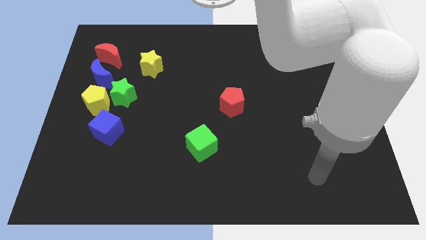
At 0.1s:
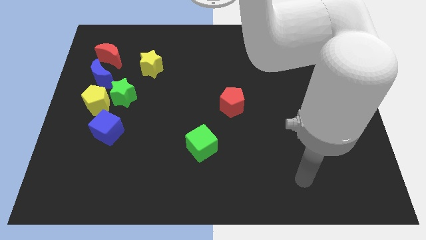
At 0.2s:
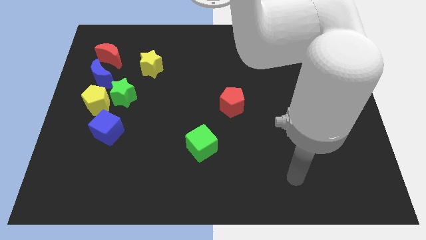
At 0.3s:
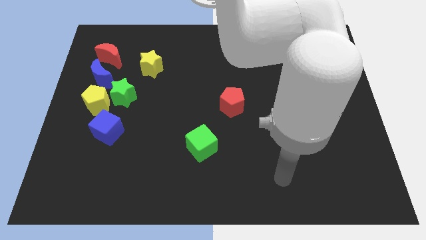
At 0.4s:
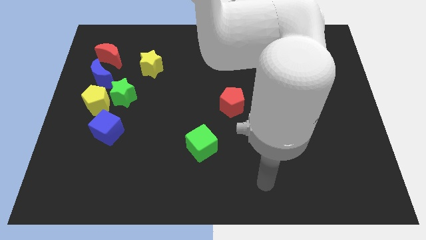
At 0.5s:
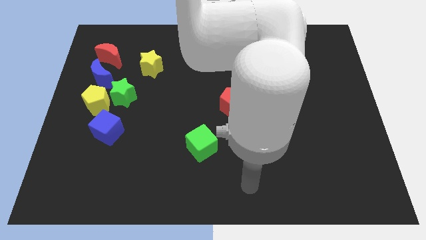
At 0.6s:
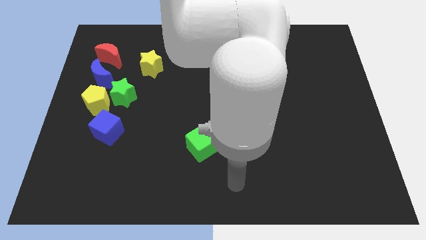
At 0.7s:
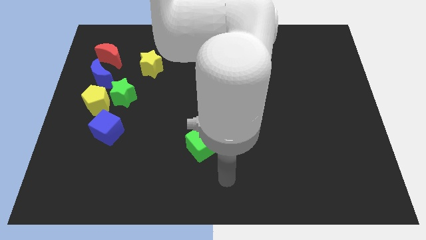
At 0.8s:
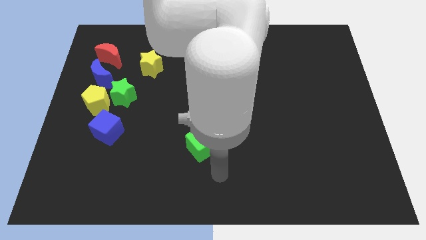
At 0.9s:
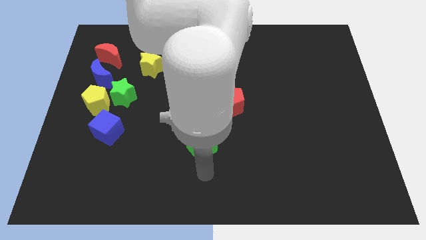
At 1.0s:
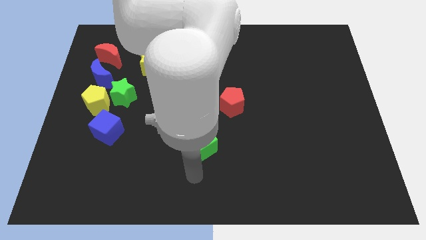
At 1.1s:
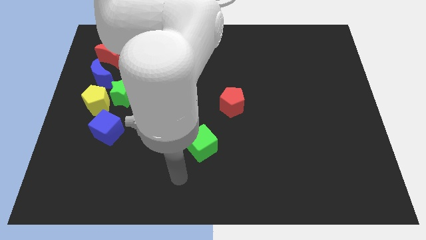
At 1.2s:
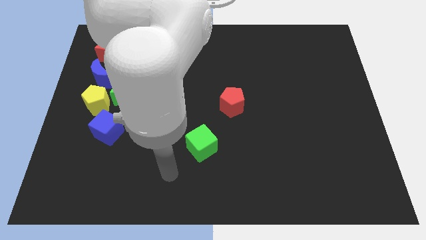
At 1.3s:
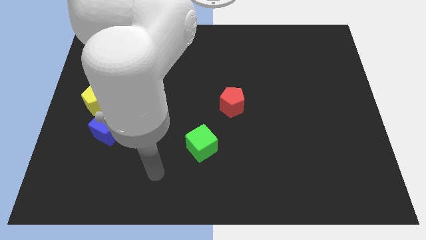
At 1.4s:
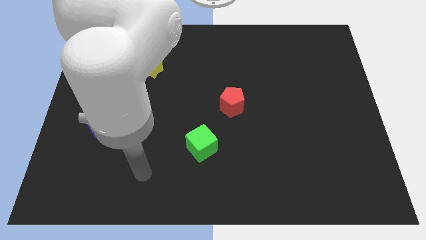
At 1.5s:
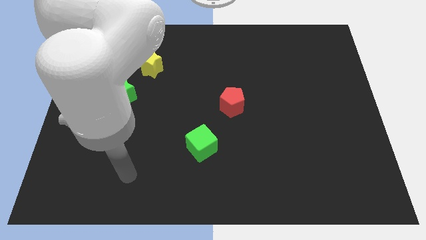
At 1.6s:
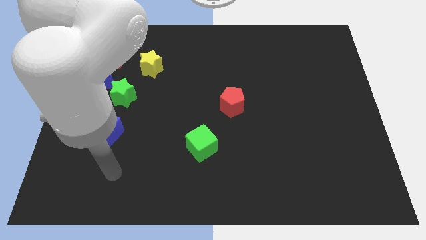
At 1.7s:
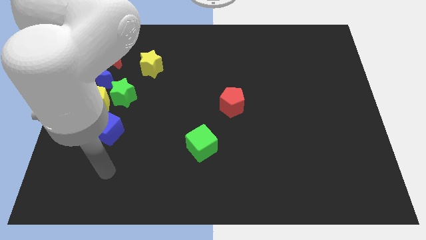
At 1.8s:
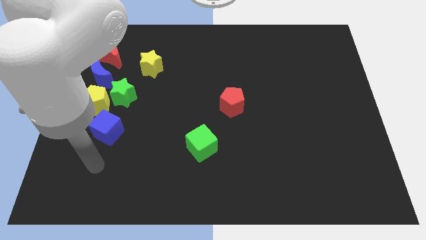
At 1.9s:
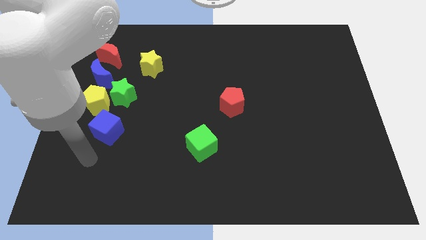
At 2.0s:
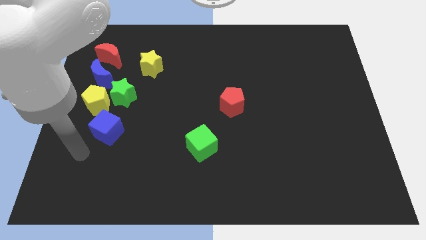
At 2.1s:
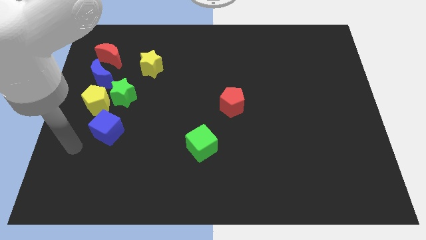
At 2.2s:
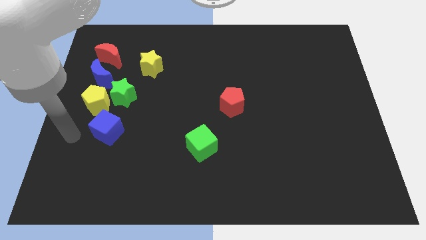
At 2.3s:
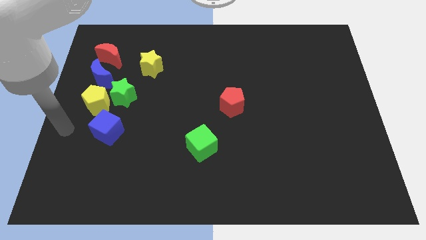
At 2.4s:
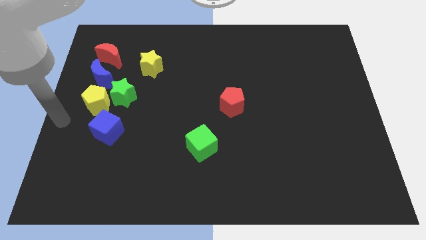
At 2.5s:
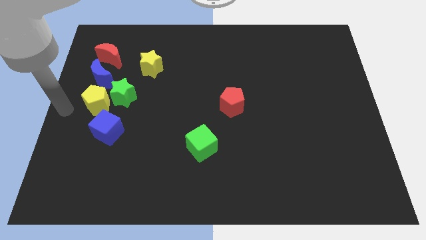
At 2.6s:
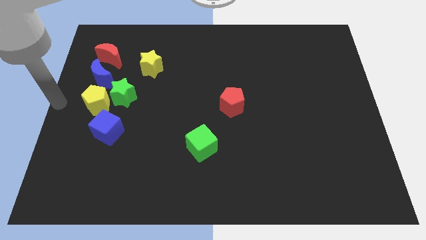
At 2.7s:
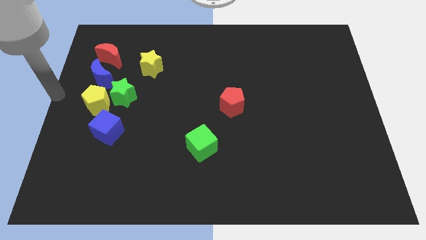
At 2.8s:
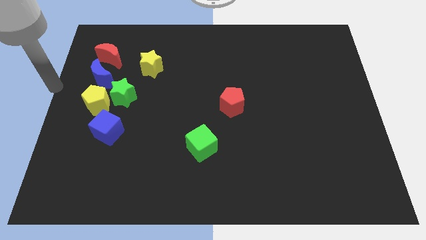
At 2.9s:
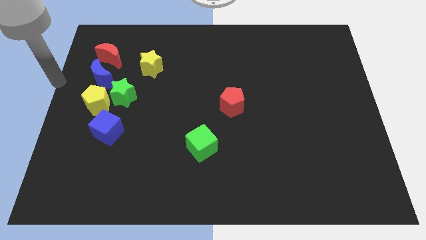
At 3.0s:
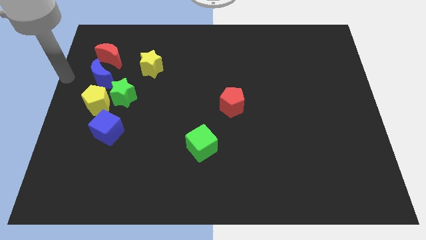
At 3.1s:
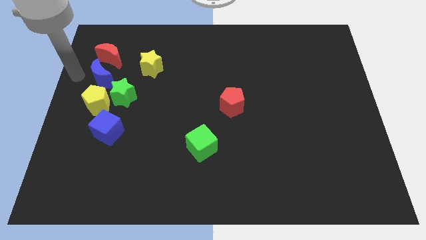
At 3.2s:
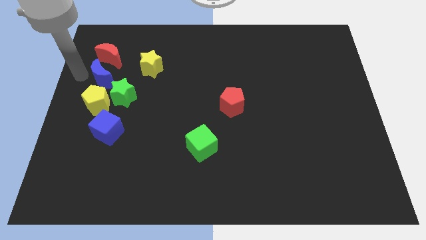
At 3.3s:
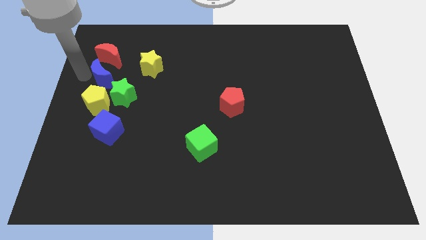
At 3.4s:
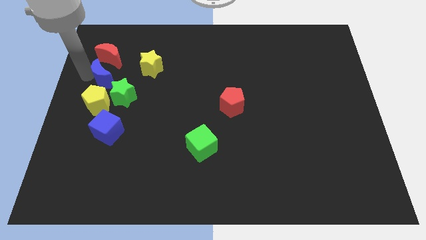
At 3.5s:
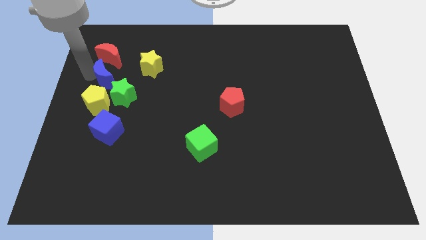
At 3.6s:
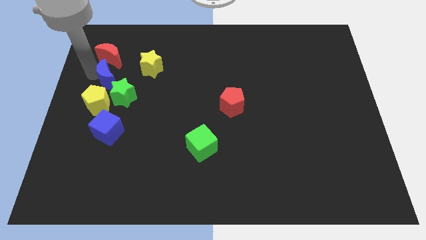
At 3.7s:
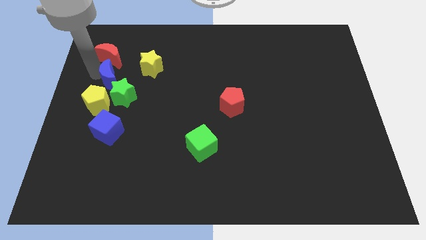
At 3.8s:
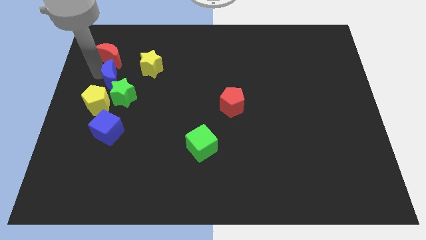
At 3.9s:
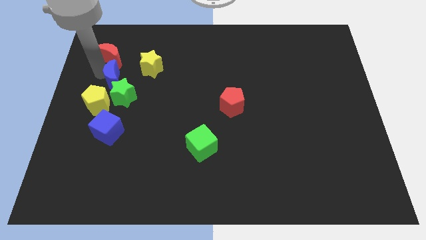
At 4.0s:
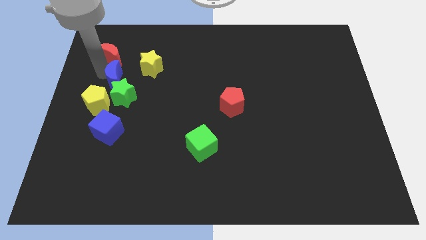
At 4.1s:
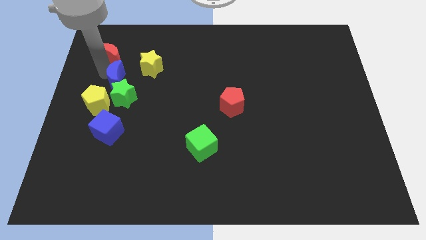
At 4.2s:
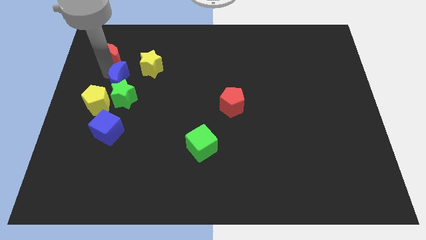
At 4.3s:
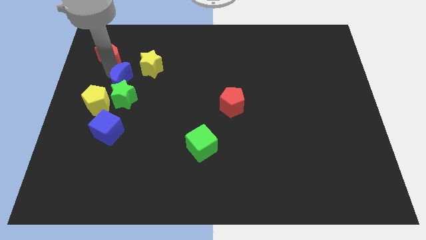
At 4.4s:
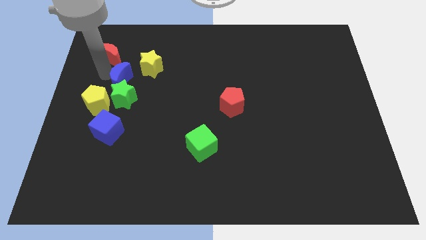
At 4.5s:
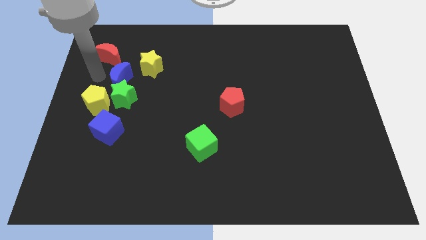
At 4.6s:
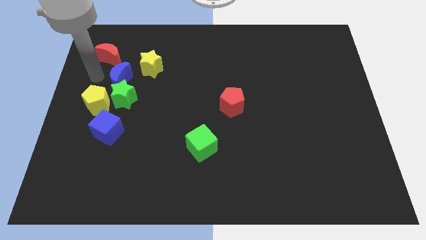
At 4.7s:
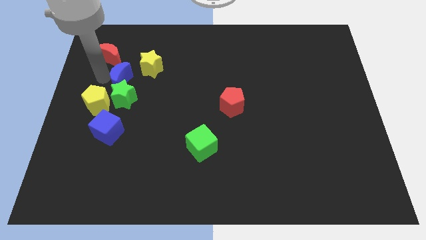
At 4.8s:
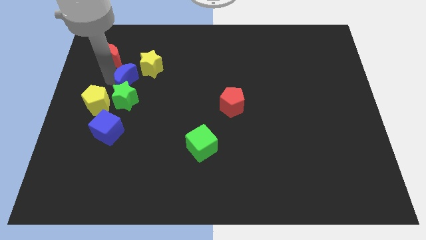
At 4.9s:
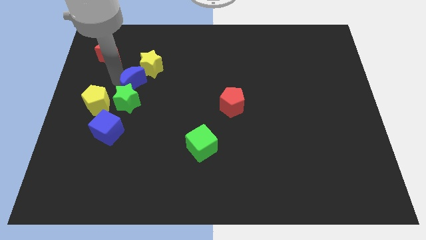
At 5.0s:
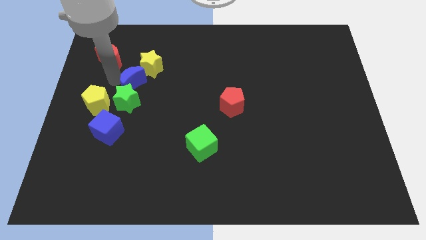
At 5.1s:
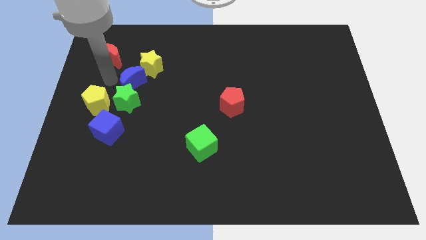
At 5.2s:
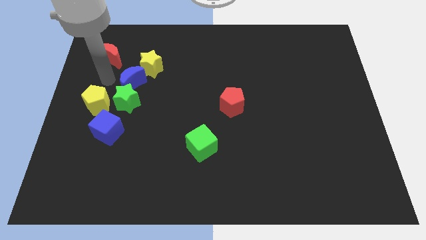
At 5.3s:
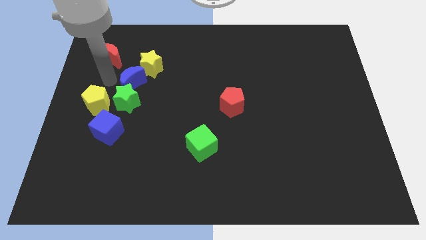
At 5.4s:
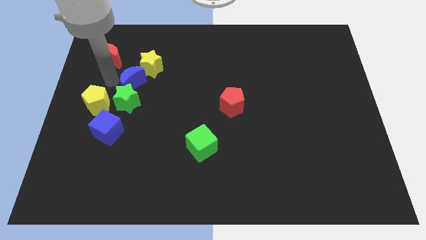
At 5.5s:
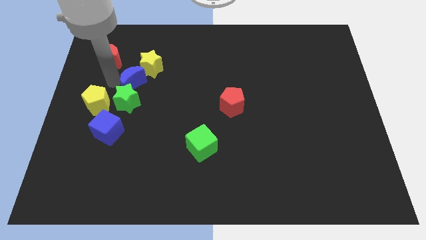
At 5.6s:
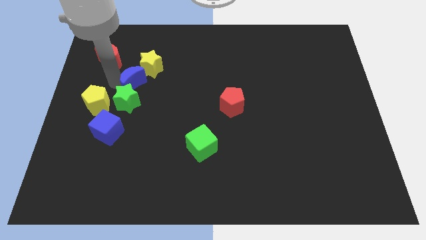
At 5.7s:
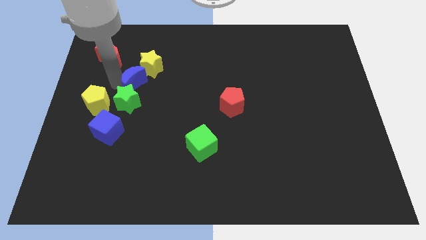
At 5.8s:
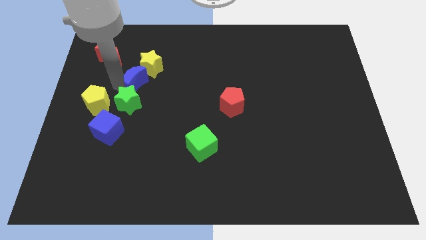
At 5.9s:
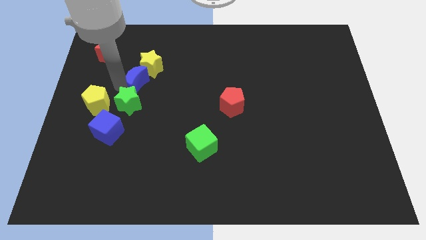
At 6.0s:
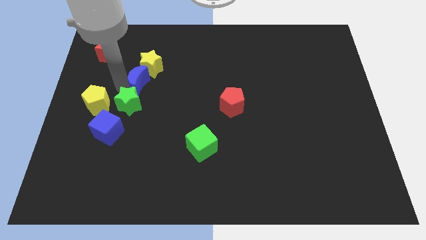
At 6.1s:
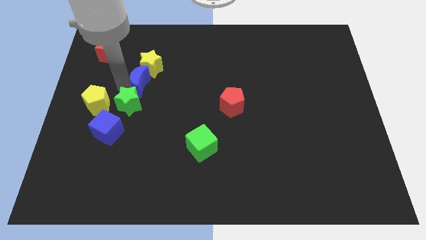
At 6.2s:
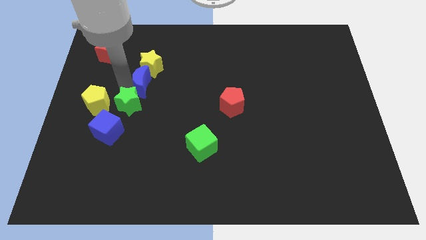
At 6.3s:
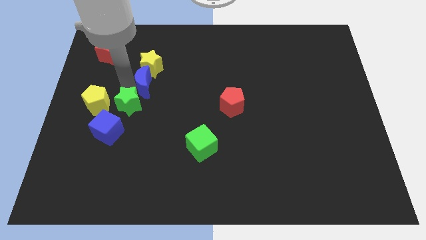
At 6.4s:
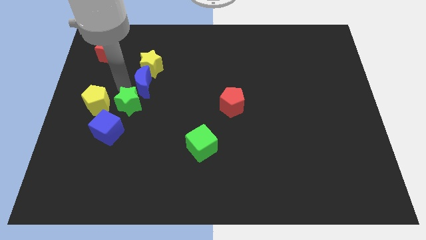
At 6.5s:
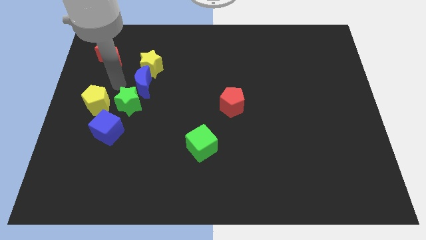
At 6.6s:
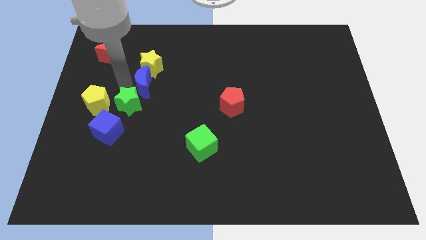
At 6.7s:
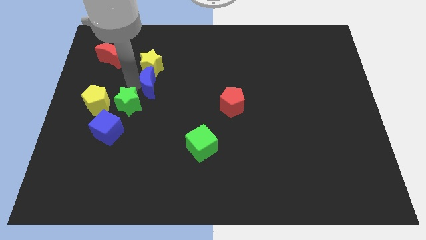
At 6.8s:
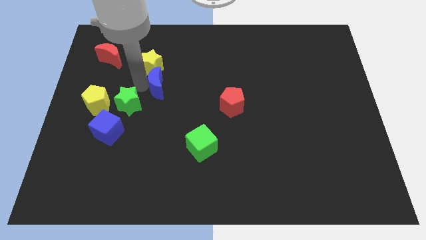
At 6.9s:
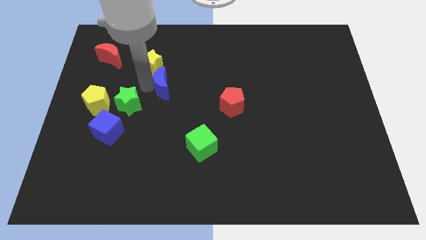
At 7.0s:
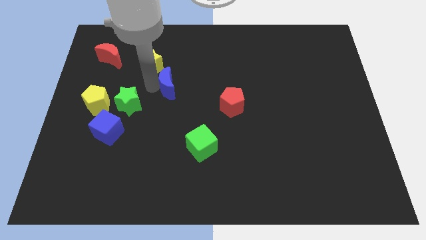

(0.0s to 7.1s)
slide the blue moon to the middle
